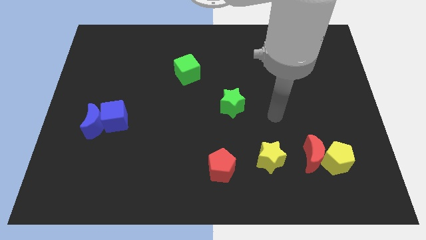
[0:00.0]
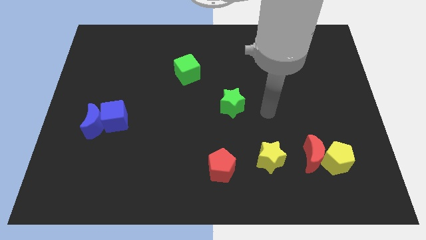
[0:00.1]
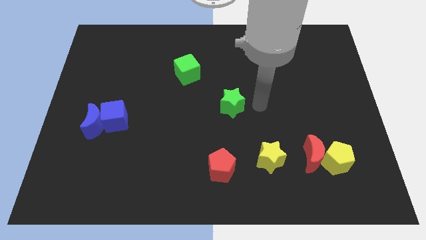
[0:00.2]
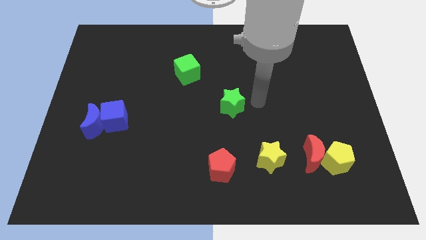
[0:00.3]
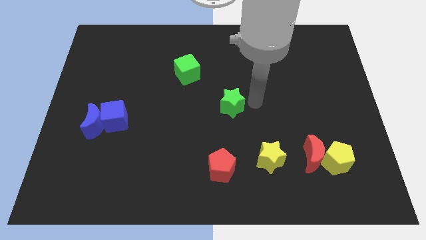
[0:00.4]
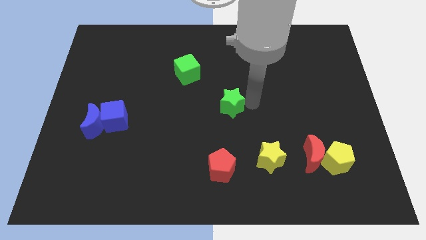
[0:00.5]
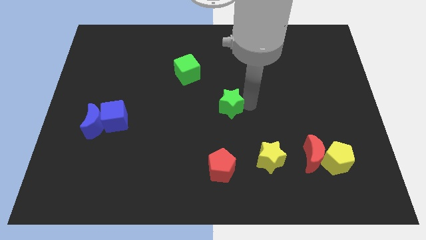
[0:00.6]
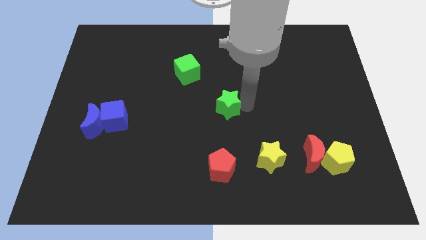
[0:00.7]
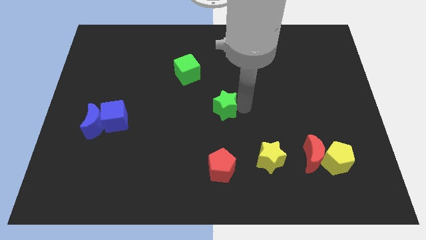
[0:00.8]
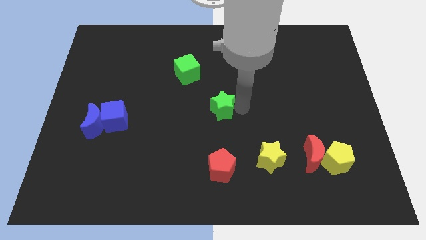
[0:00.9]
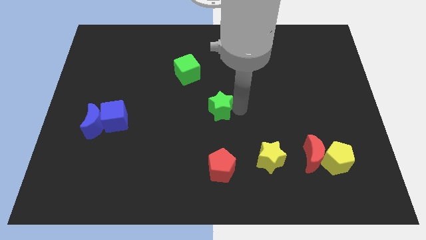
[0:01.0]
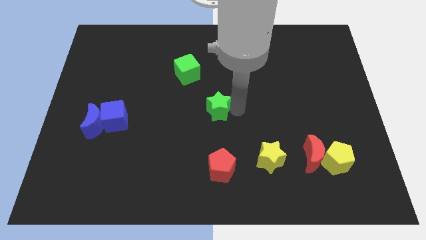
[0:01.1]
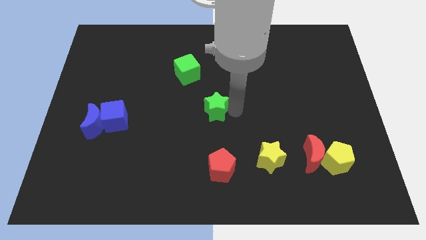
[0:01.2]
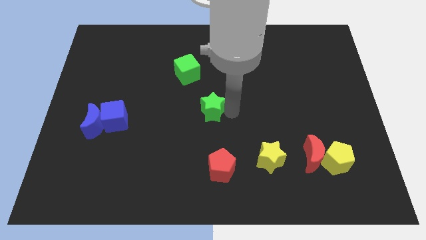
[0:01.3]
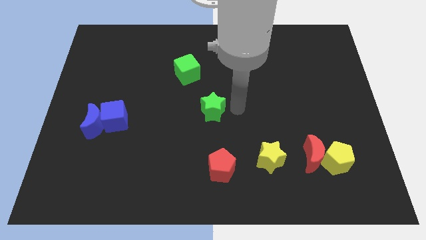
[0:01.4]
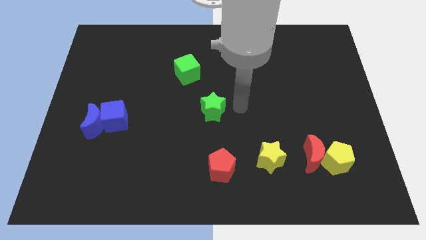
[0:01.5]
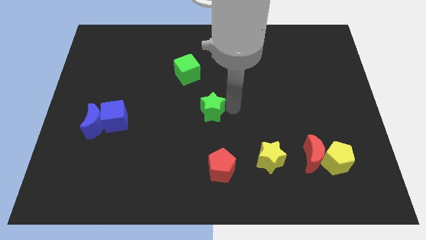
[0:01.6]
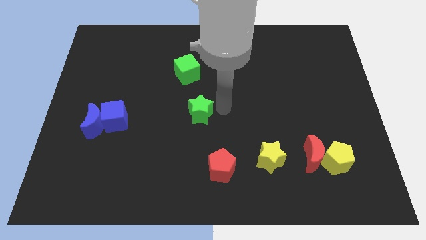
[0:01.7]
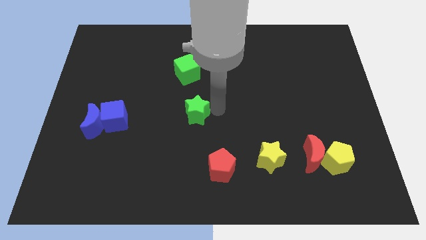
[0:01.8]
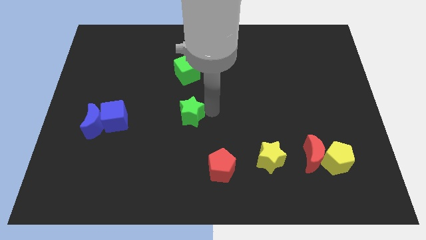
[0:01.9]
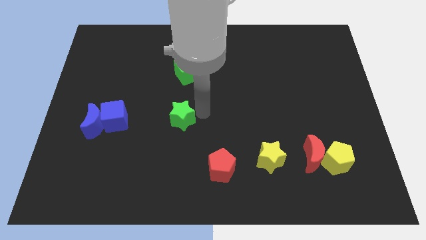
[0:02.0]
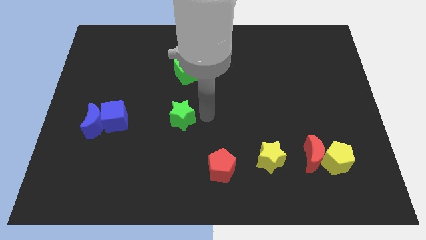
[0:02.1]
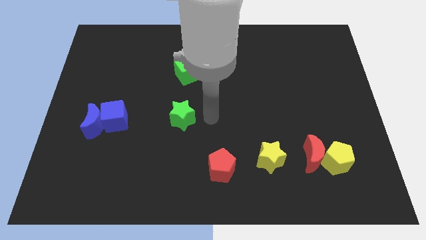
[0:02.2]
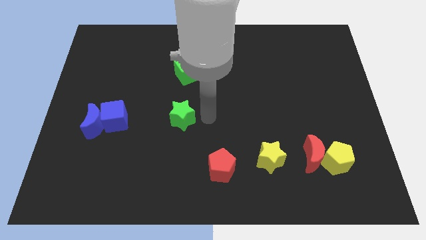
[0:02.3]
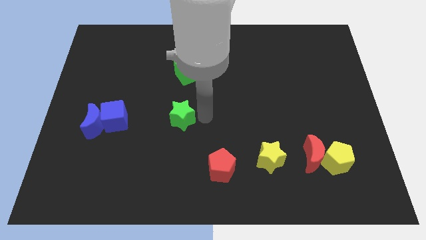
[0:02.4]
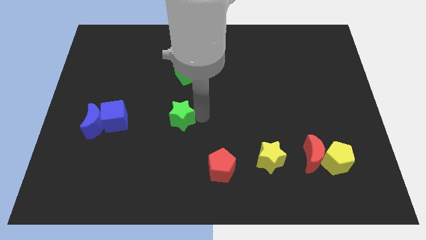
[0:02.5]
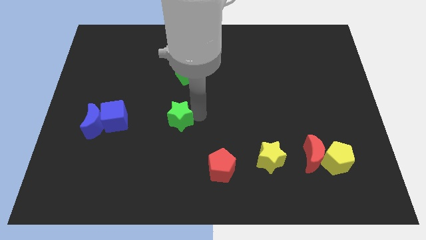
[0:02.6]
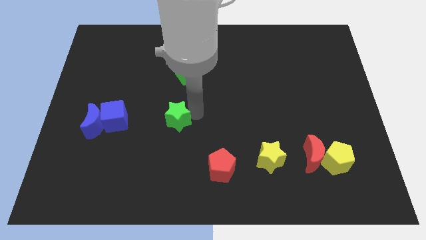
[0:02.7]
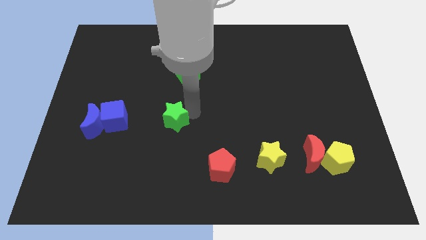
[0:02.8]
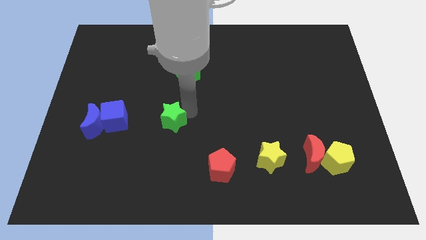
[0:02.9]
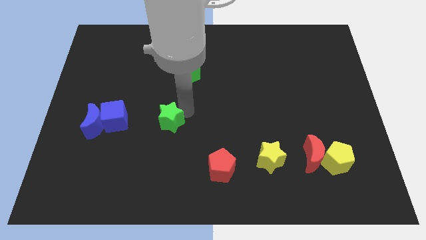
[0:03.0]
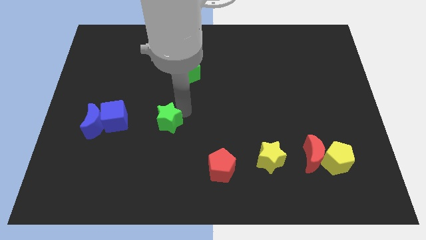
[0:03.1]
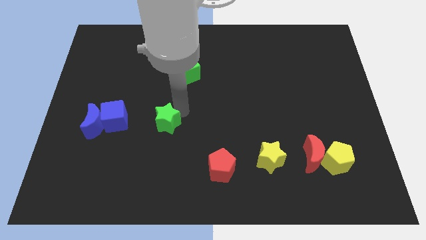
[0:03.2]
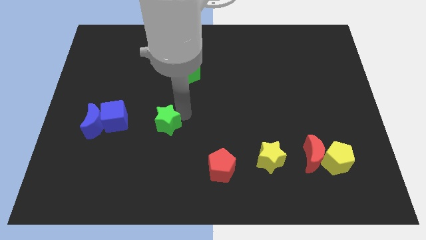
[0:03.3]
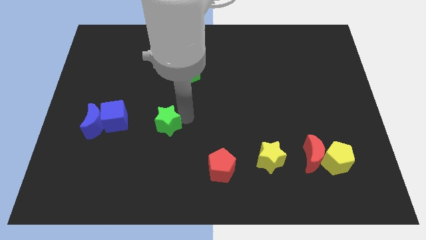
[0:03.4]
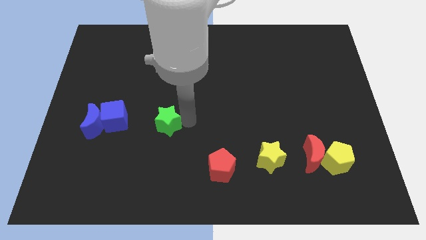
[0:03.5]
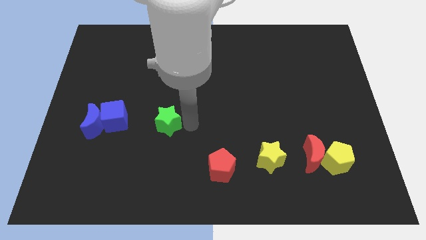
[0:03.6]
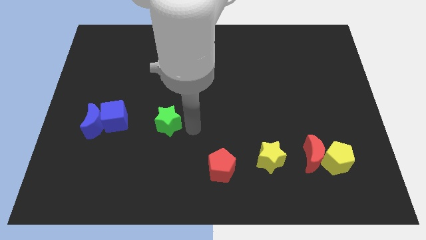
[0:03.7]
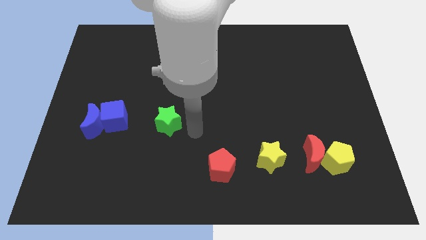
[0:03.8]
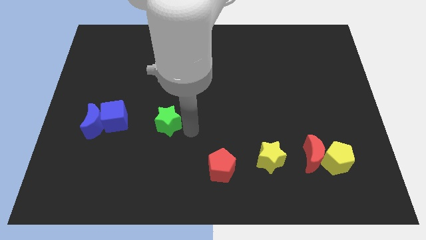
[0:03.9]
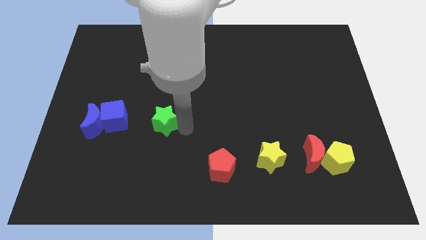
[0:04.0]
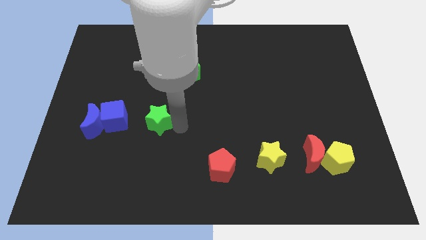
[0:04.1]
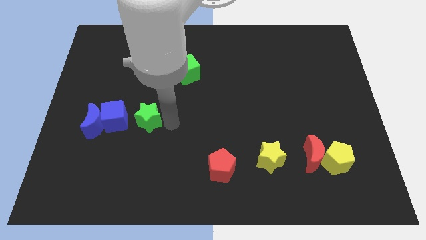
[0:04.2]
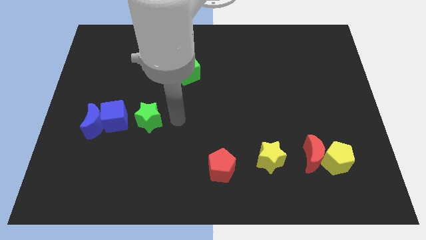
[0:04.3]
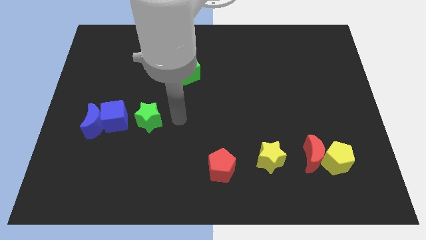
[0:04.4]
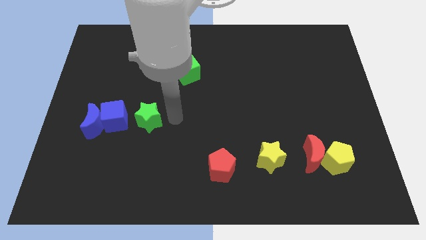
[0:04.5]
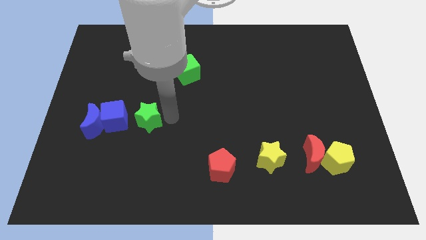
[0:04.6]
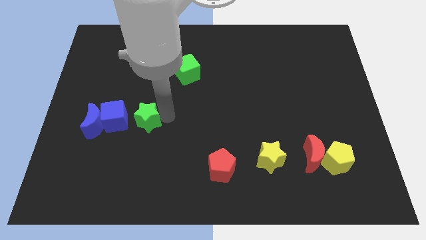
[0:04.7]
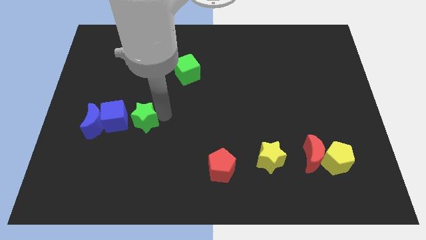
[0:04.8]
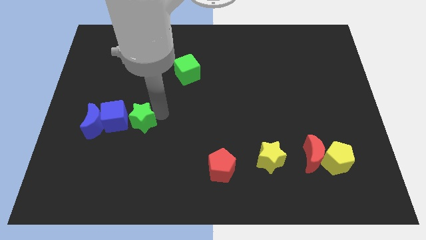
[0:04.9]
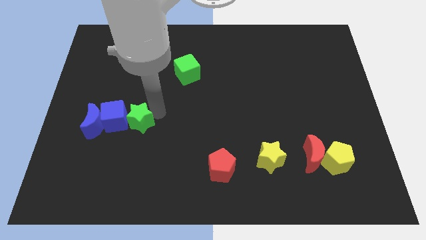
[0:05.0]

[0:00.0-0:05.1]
put the green star towards the blue cube

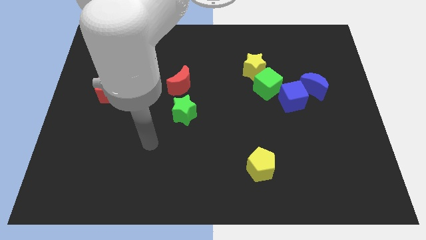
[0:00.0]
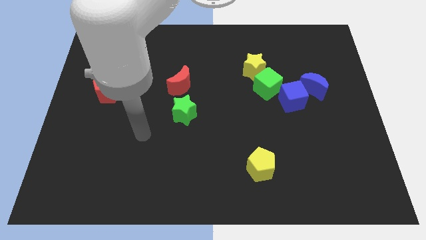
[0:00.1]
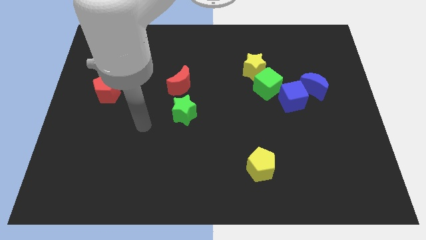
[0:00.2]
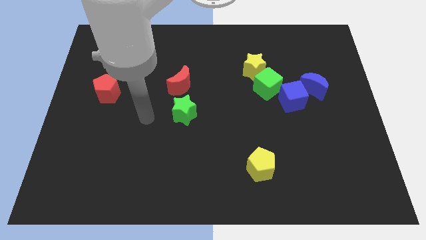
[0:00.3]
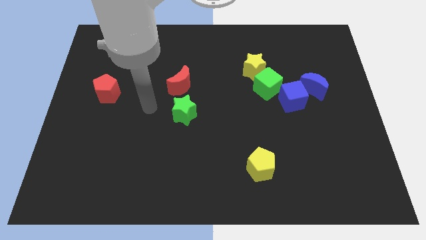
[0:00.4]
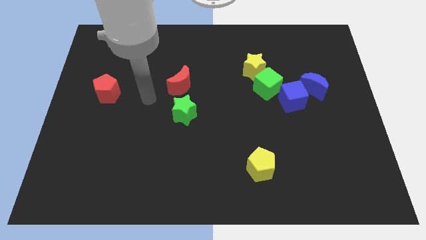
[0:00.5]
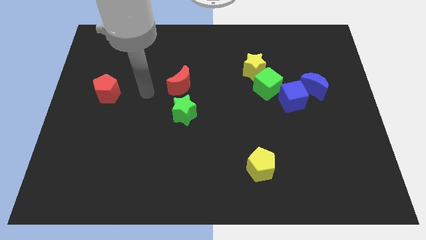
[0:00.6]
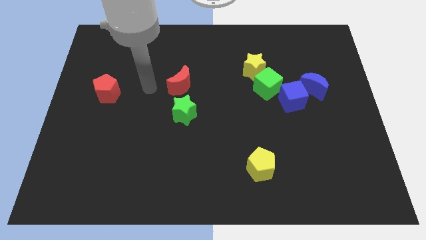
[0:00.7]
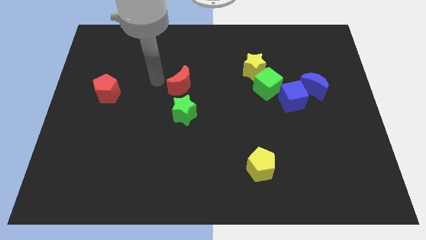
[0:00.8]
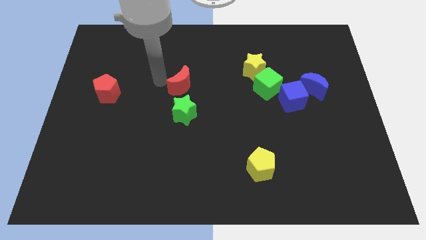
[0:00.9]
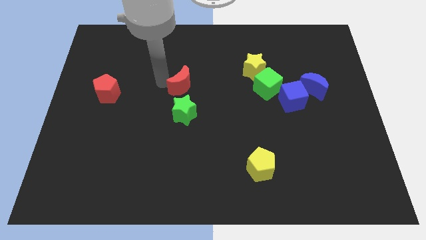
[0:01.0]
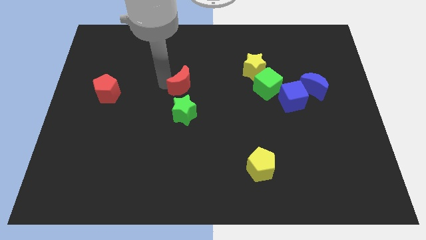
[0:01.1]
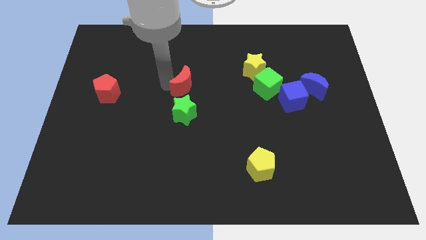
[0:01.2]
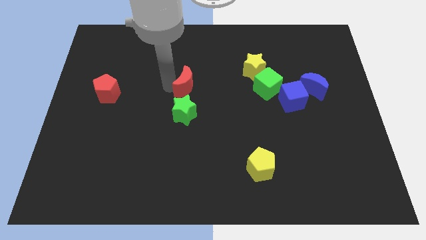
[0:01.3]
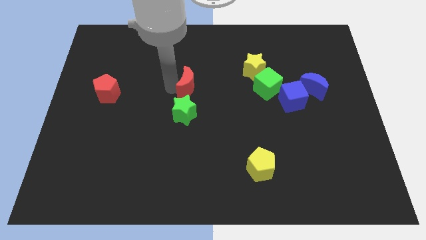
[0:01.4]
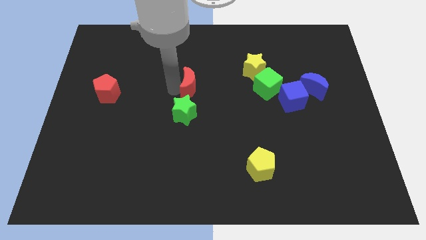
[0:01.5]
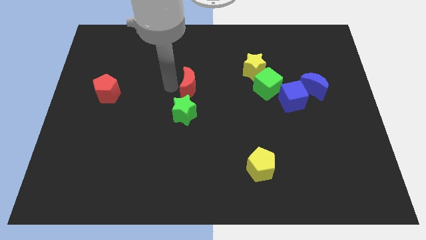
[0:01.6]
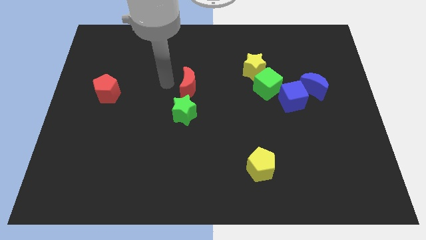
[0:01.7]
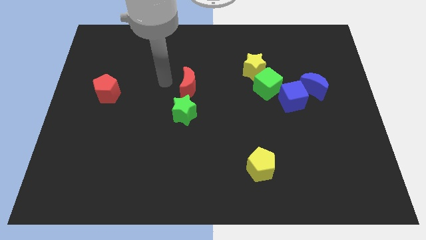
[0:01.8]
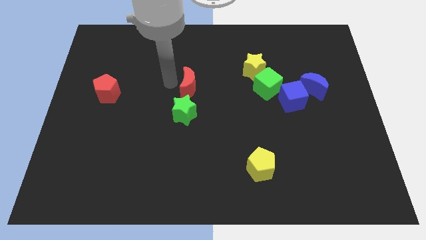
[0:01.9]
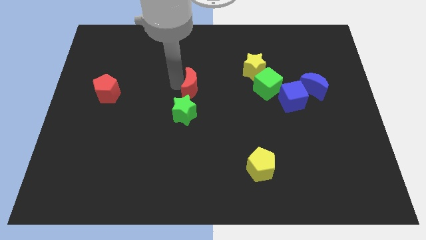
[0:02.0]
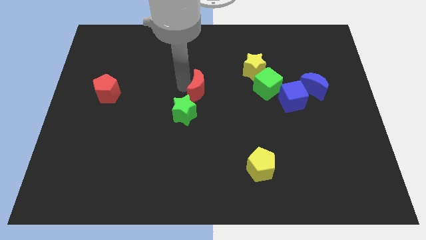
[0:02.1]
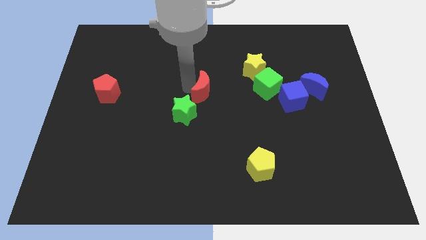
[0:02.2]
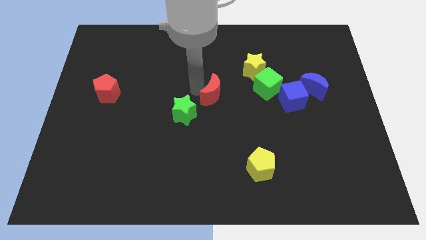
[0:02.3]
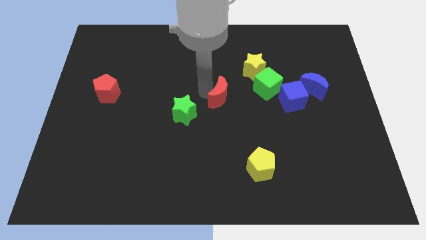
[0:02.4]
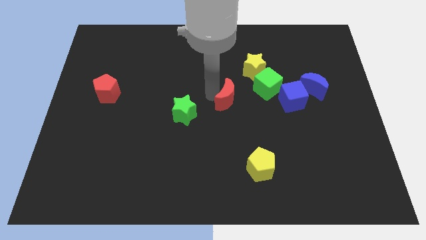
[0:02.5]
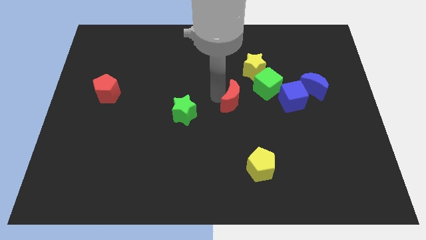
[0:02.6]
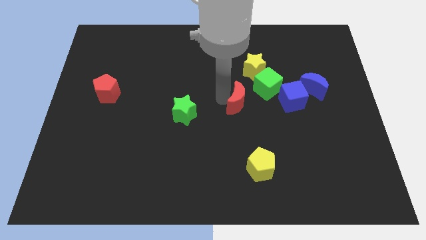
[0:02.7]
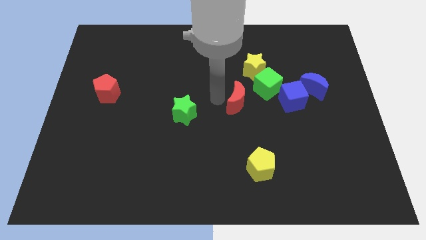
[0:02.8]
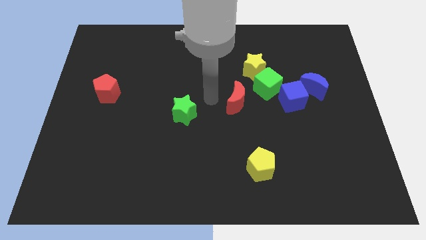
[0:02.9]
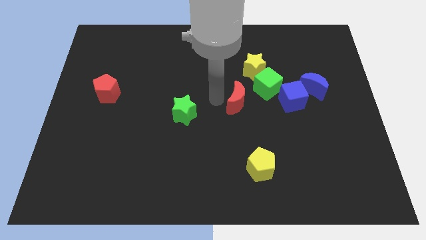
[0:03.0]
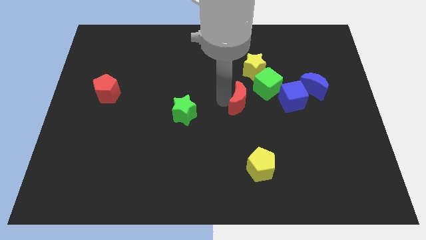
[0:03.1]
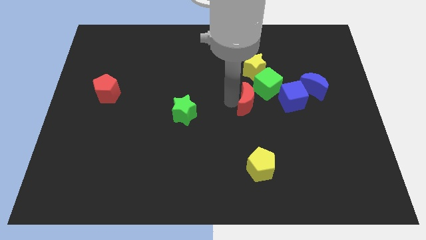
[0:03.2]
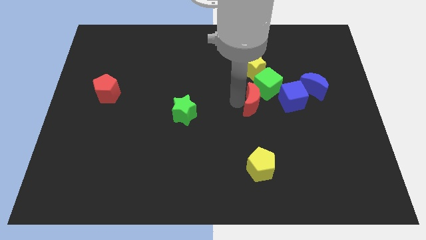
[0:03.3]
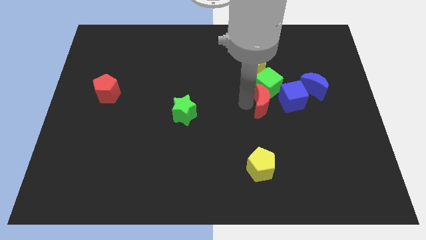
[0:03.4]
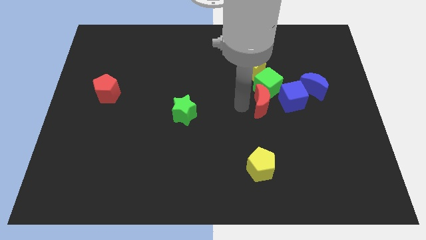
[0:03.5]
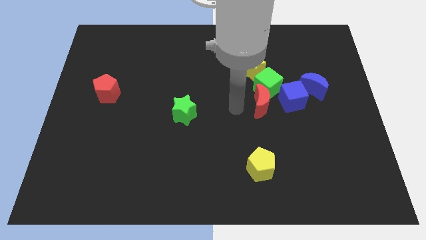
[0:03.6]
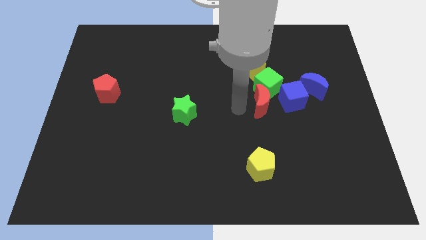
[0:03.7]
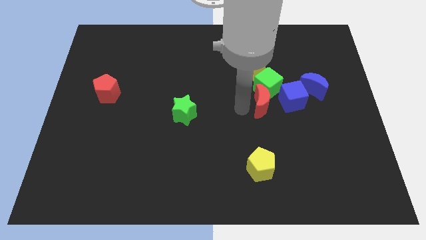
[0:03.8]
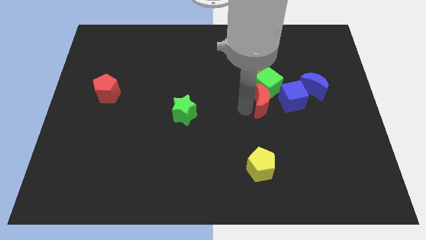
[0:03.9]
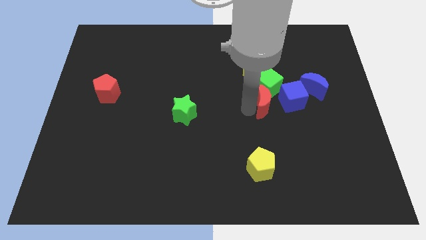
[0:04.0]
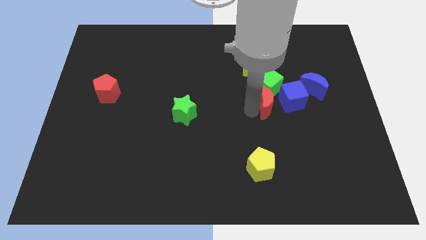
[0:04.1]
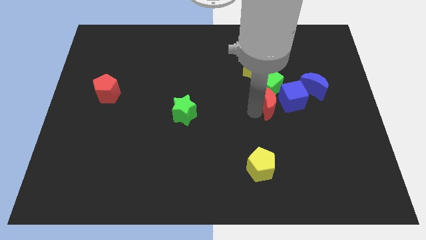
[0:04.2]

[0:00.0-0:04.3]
move the red moon to the blue cube
